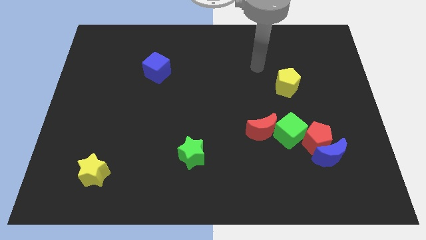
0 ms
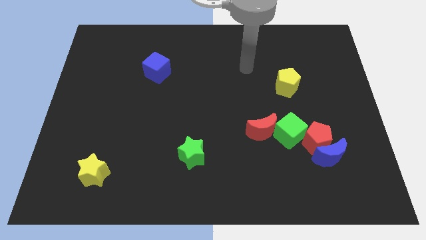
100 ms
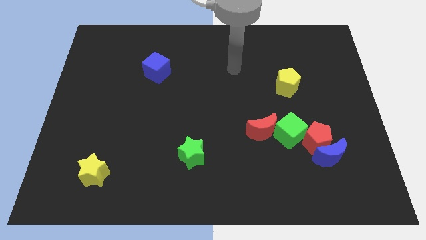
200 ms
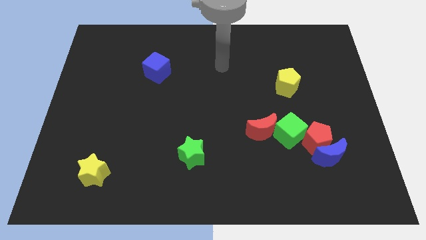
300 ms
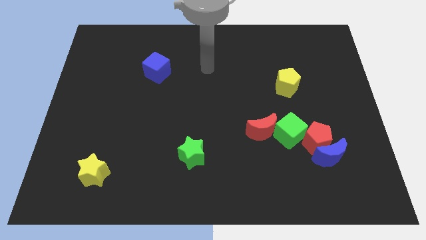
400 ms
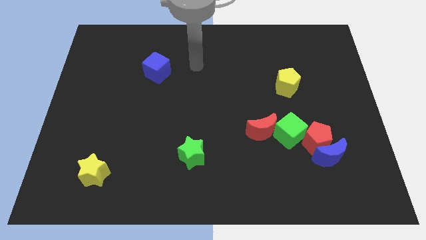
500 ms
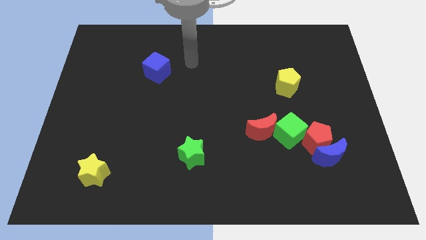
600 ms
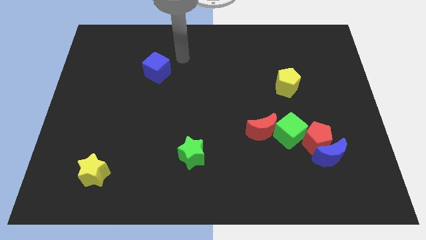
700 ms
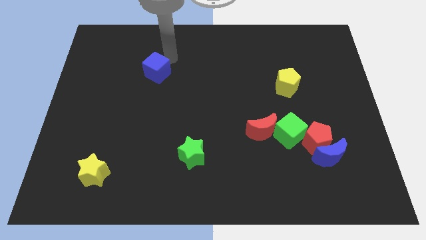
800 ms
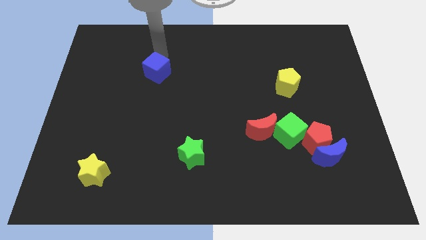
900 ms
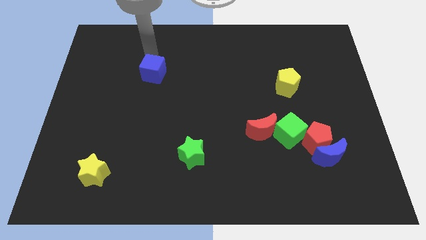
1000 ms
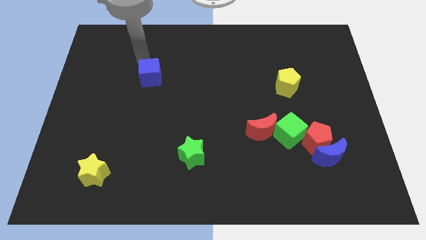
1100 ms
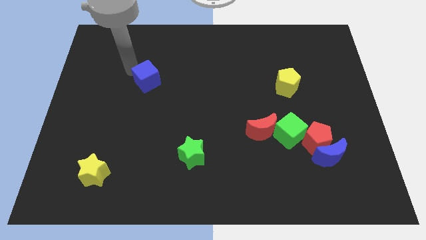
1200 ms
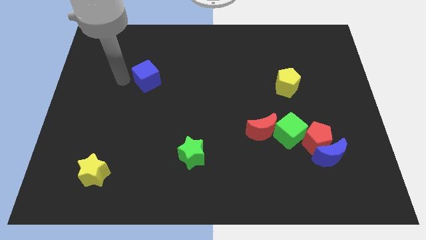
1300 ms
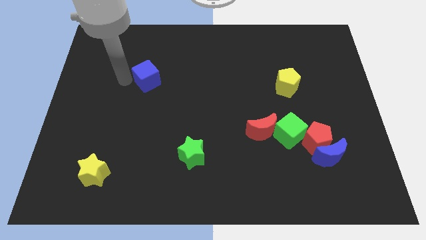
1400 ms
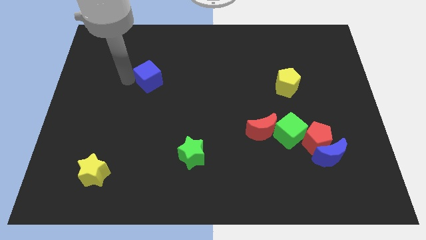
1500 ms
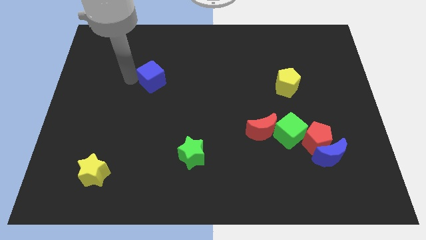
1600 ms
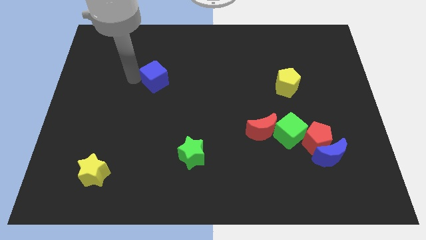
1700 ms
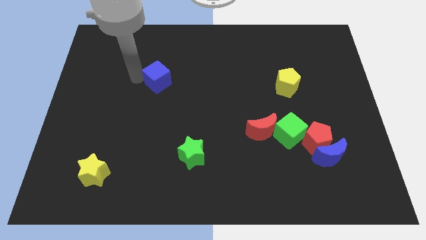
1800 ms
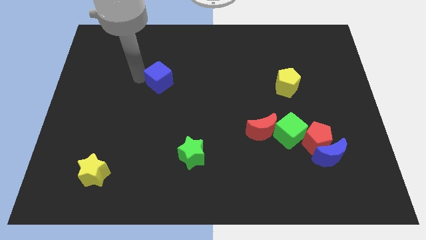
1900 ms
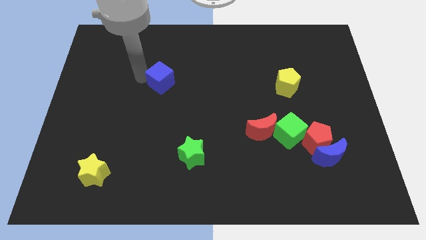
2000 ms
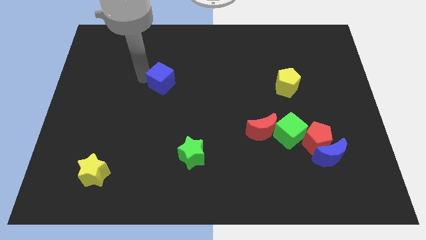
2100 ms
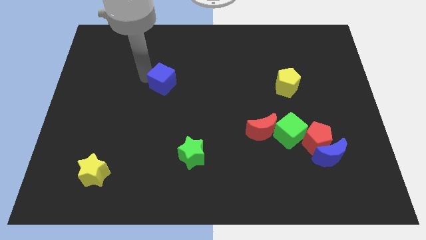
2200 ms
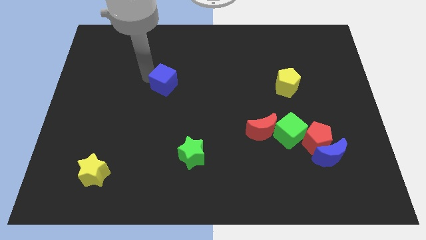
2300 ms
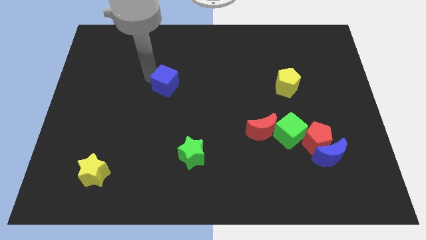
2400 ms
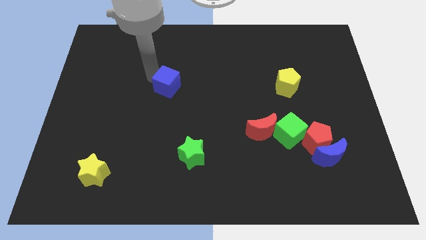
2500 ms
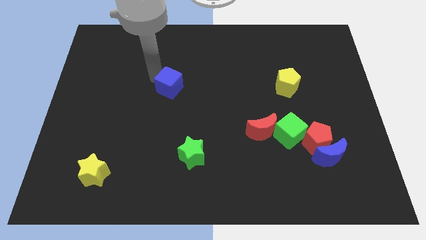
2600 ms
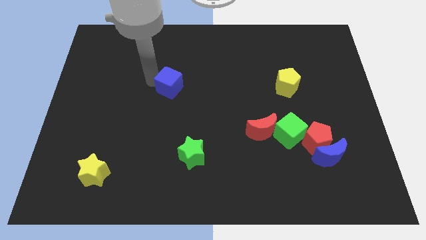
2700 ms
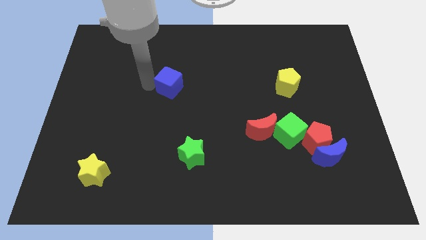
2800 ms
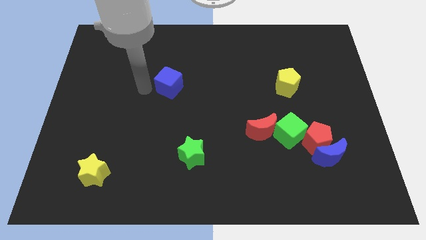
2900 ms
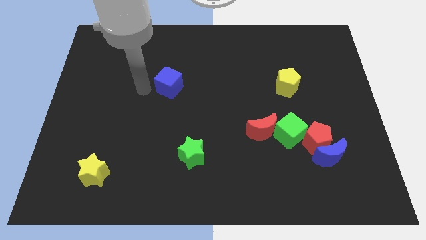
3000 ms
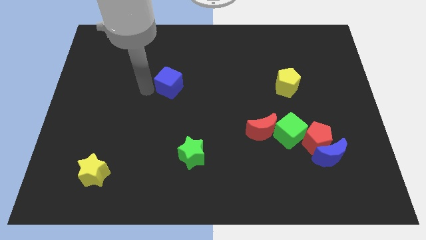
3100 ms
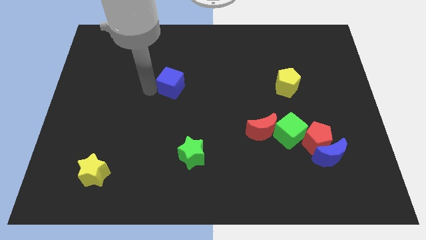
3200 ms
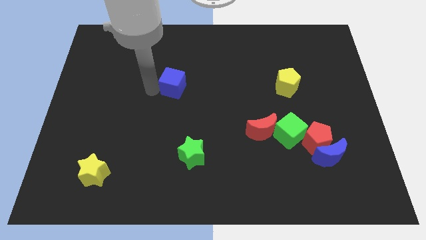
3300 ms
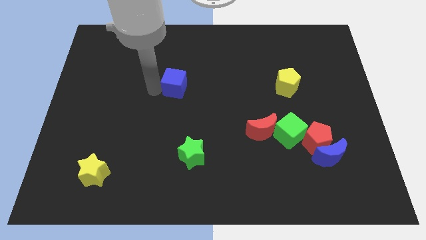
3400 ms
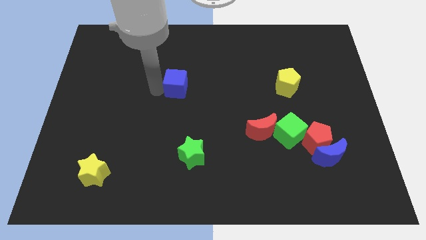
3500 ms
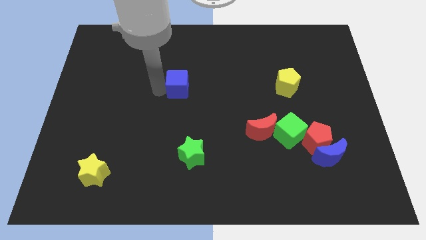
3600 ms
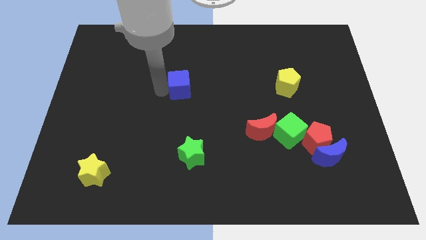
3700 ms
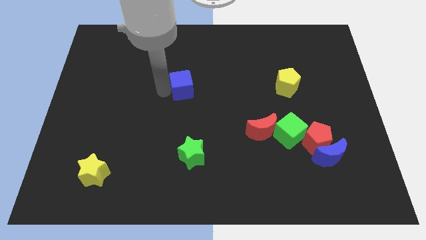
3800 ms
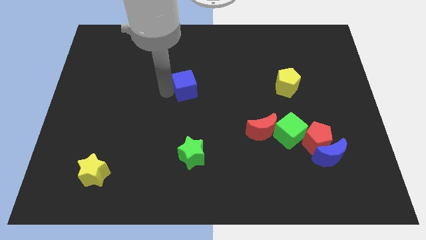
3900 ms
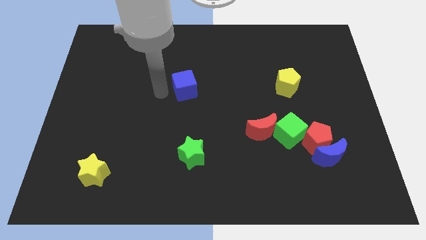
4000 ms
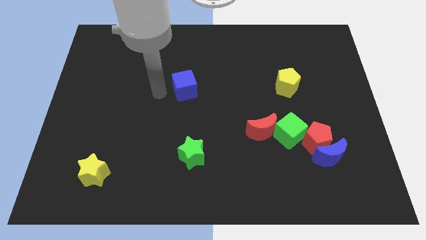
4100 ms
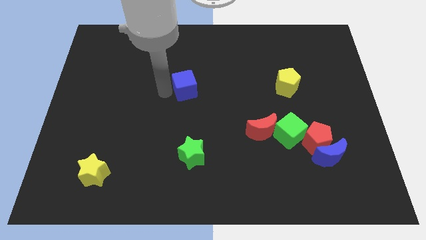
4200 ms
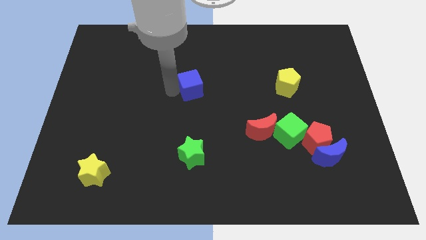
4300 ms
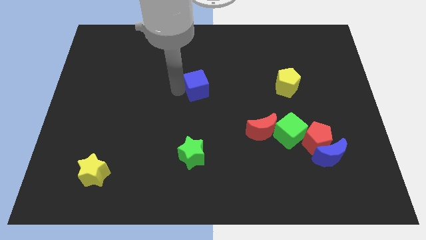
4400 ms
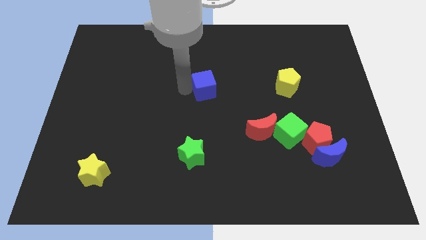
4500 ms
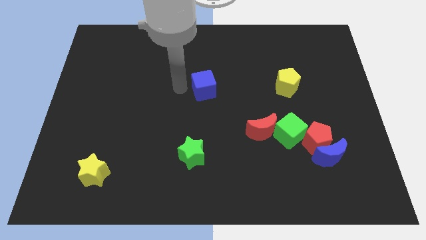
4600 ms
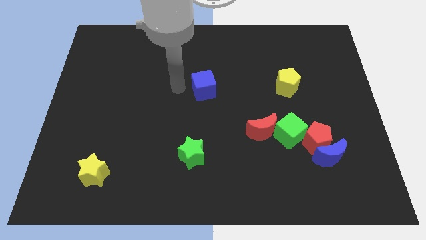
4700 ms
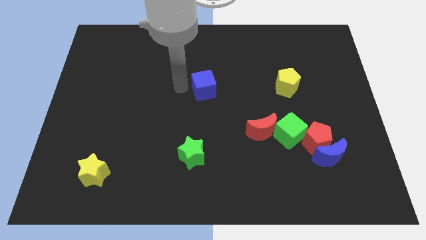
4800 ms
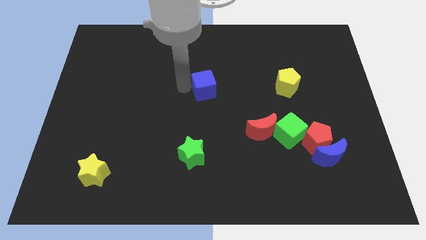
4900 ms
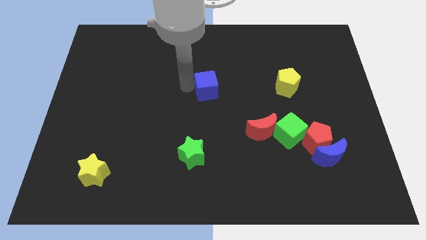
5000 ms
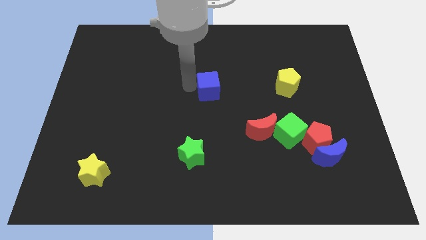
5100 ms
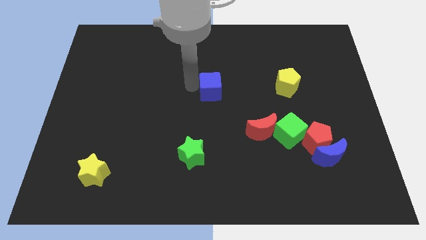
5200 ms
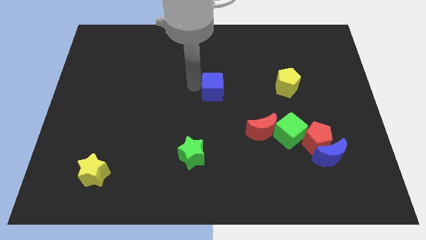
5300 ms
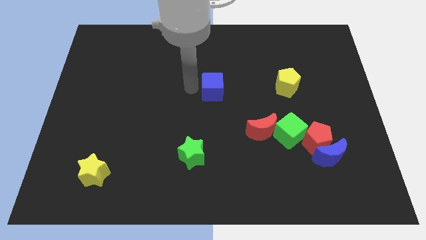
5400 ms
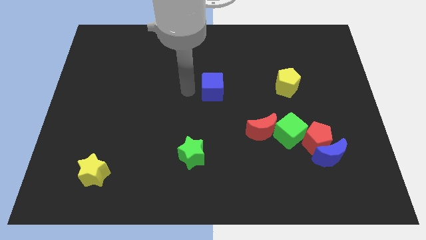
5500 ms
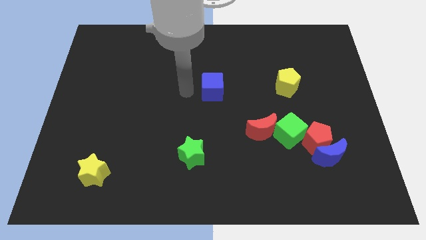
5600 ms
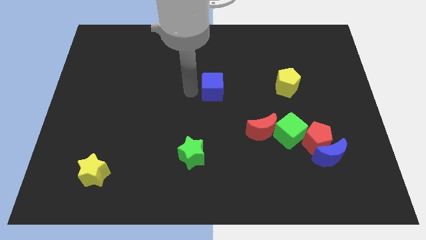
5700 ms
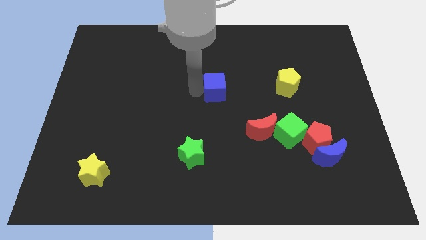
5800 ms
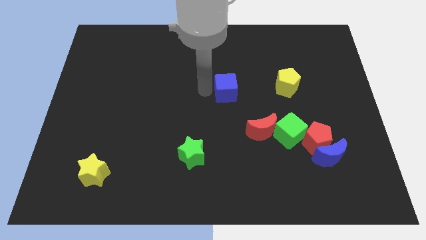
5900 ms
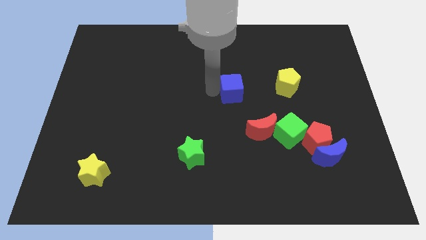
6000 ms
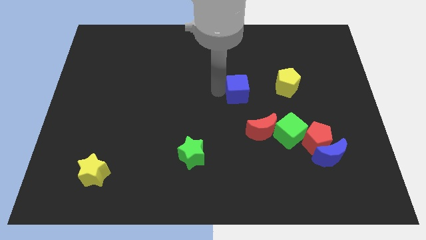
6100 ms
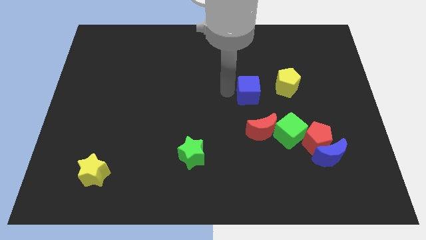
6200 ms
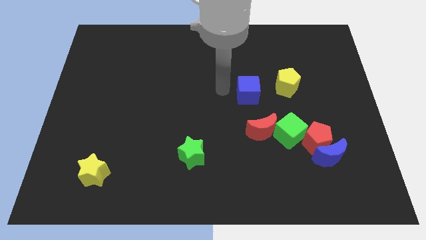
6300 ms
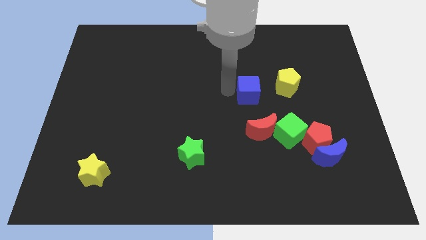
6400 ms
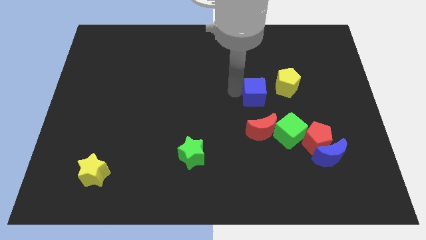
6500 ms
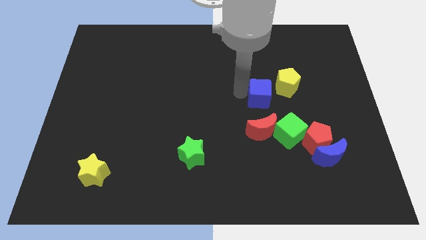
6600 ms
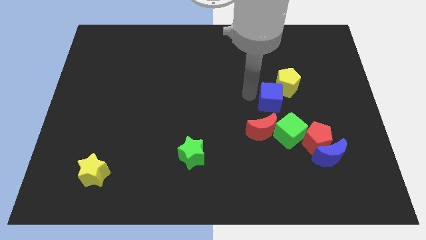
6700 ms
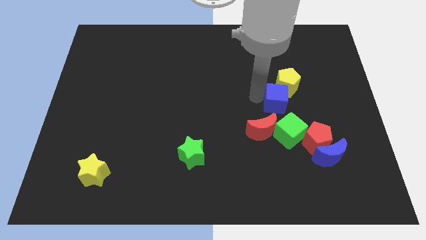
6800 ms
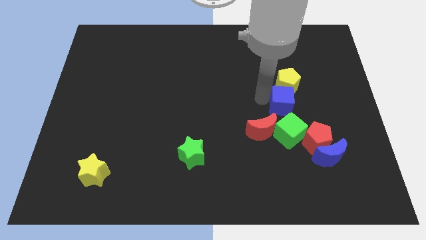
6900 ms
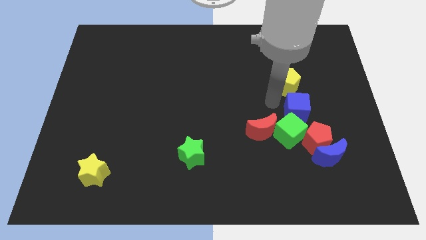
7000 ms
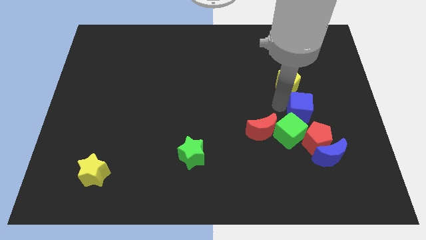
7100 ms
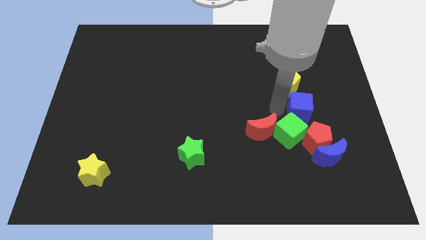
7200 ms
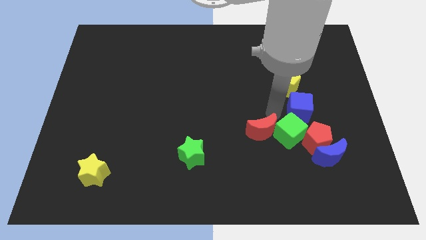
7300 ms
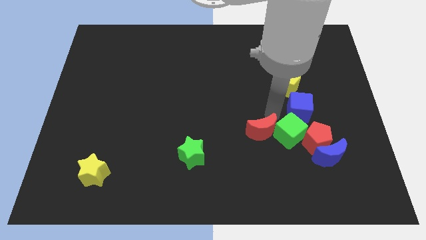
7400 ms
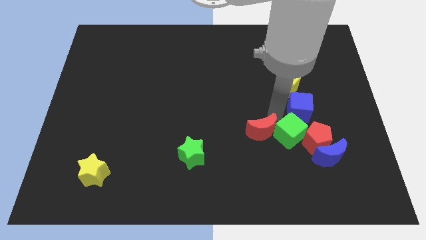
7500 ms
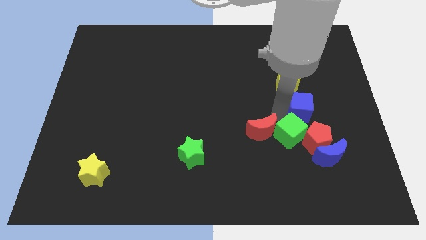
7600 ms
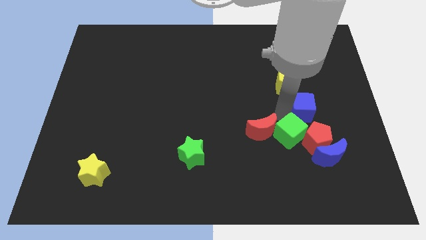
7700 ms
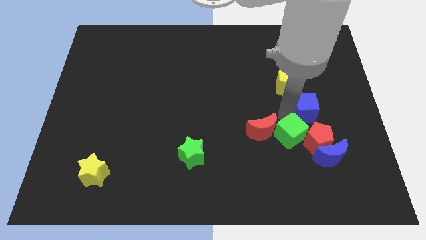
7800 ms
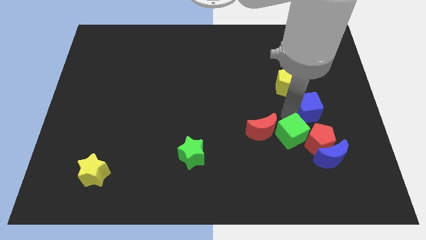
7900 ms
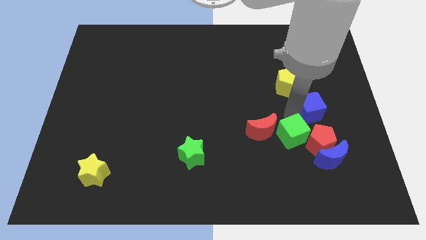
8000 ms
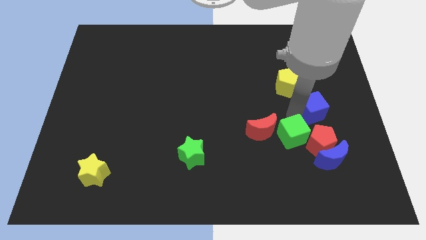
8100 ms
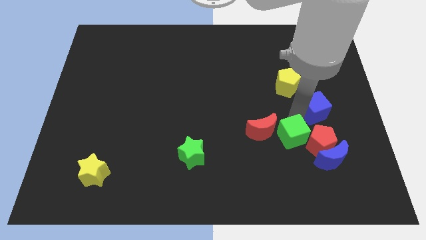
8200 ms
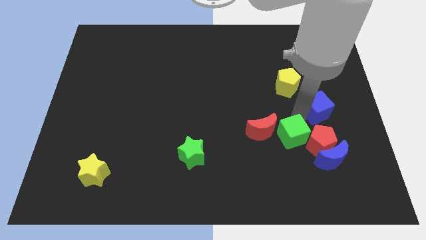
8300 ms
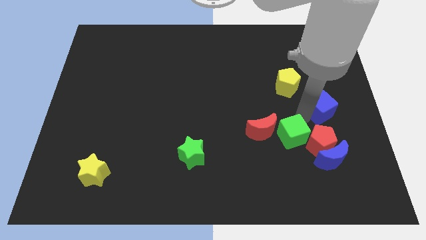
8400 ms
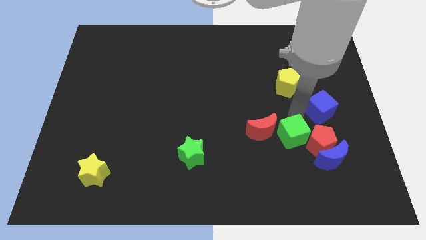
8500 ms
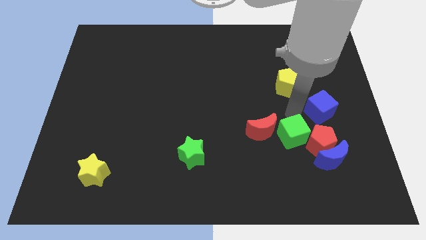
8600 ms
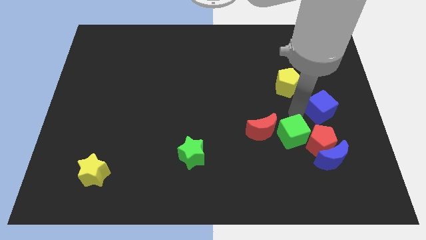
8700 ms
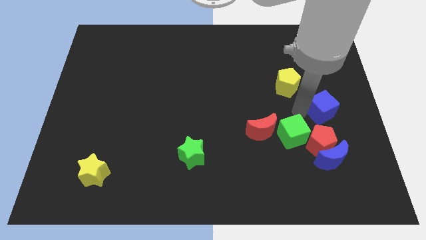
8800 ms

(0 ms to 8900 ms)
slide the blue cube to the right side of the board
